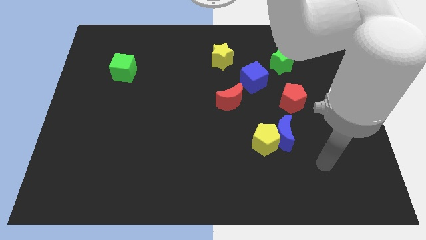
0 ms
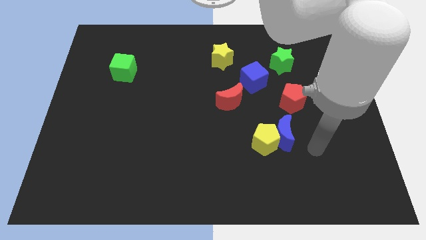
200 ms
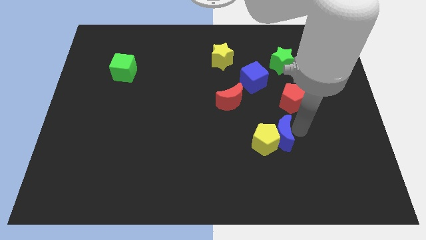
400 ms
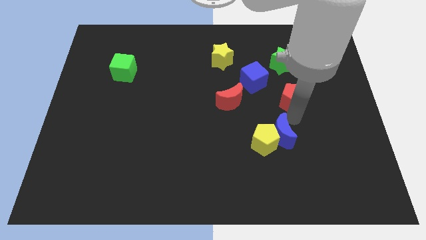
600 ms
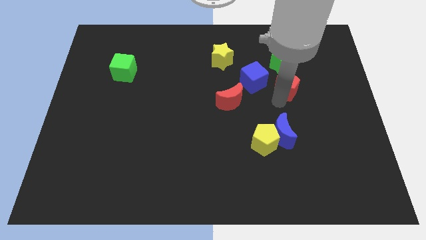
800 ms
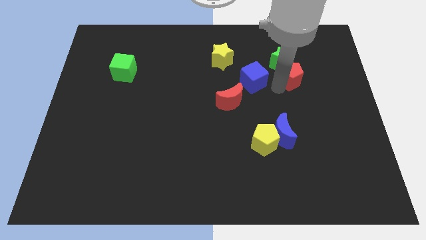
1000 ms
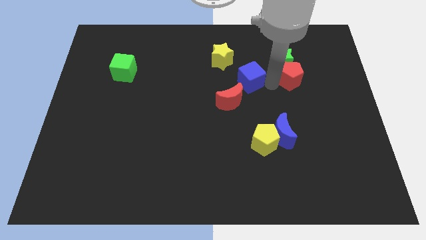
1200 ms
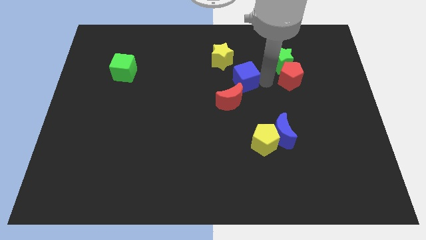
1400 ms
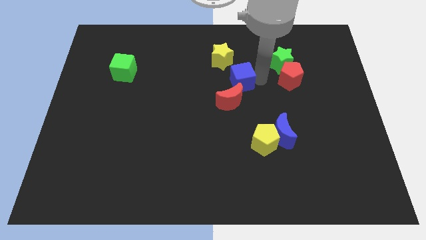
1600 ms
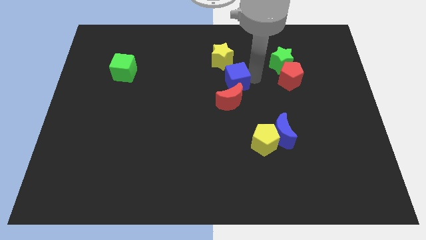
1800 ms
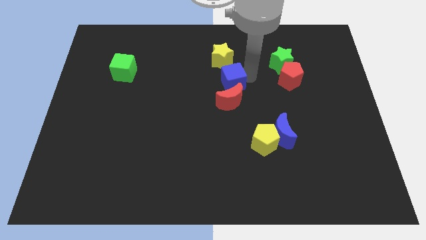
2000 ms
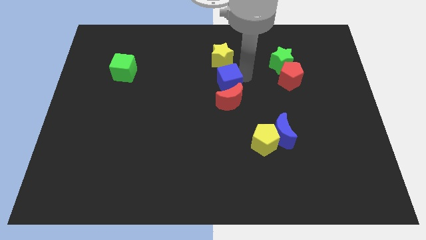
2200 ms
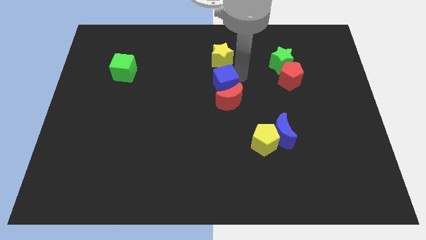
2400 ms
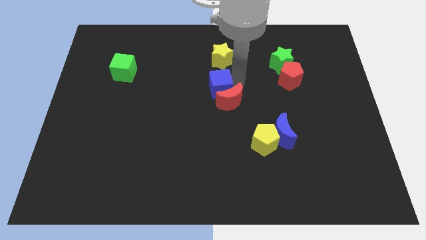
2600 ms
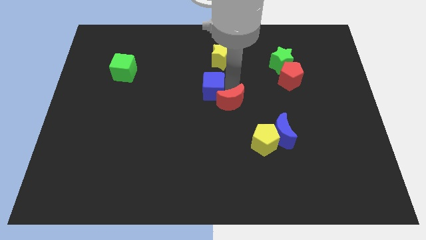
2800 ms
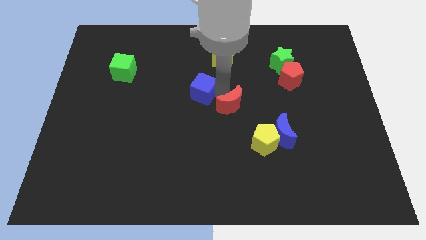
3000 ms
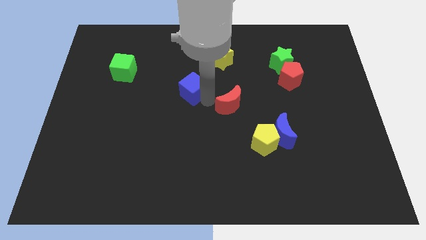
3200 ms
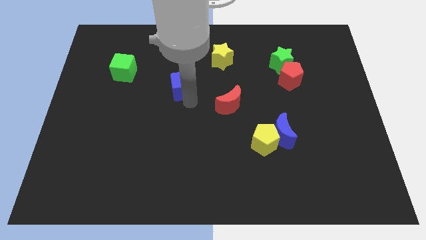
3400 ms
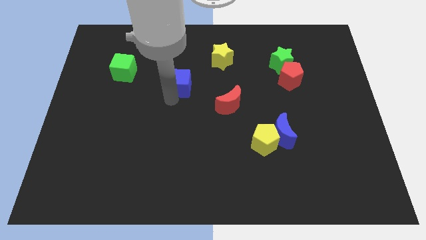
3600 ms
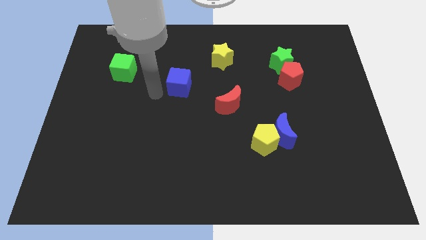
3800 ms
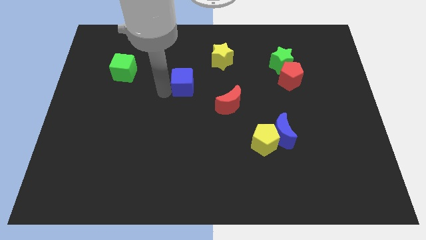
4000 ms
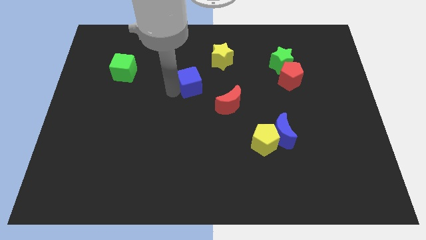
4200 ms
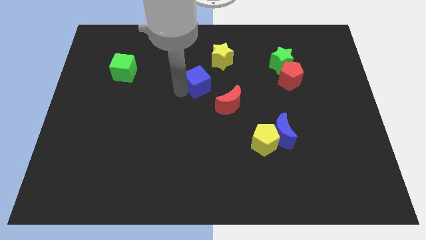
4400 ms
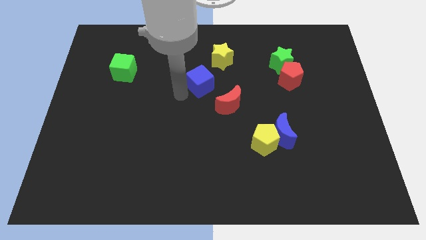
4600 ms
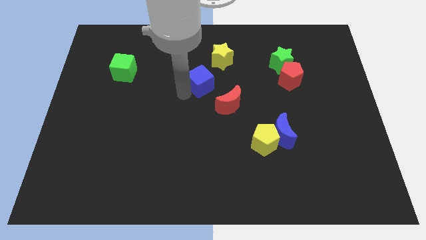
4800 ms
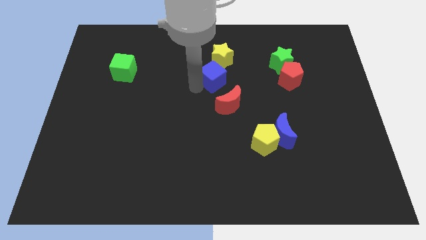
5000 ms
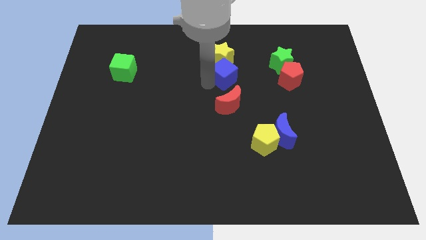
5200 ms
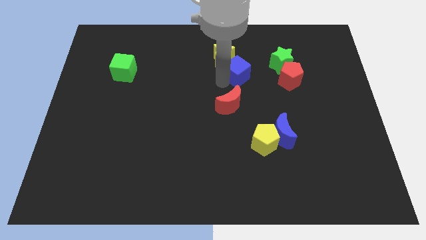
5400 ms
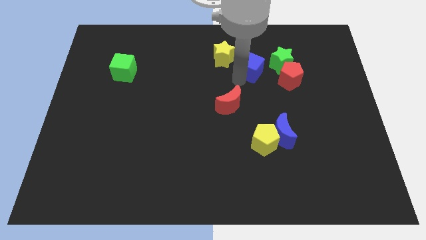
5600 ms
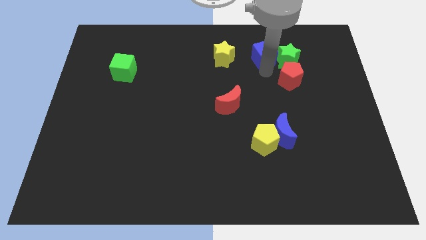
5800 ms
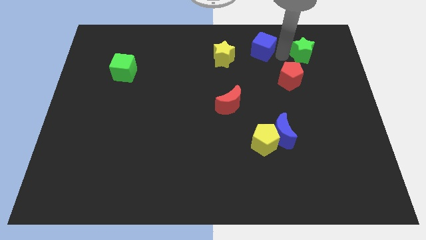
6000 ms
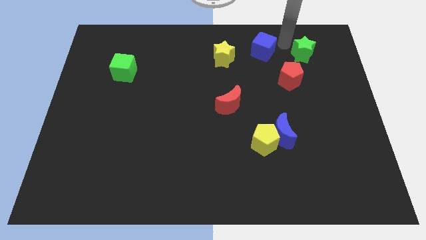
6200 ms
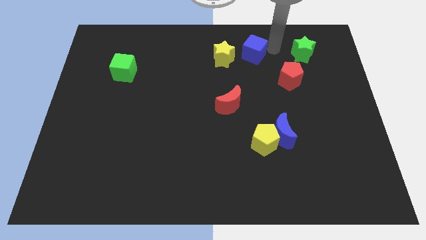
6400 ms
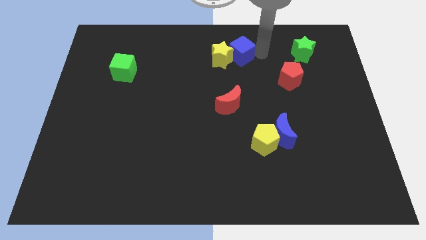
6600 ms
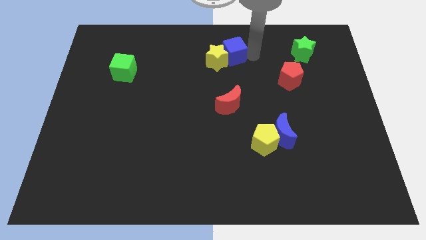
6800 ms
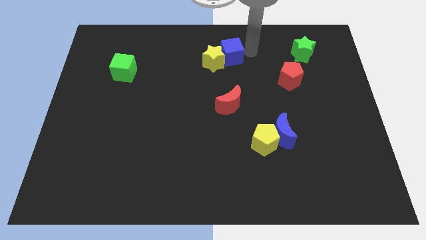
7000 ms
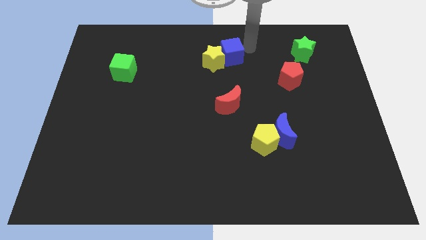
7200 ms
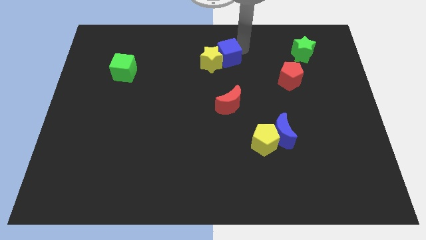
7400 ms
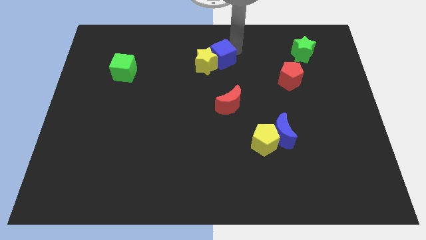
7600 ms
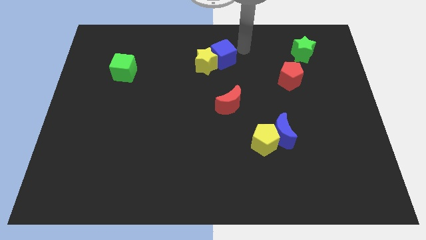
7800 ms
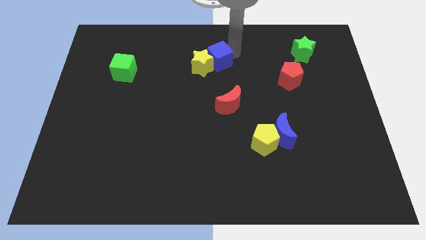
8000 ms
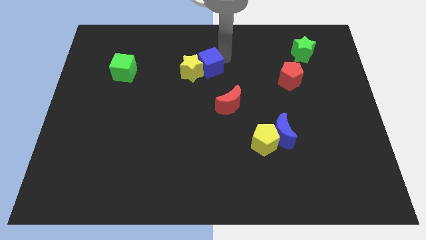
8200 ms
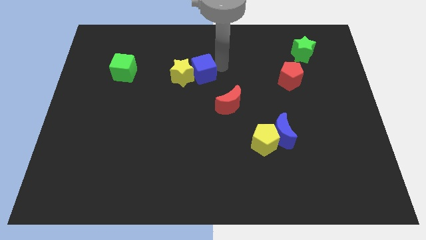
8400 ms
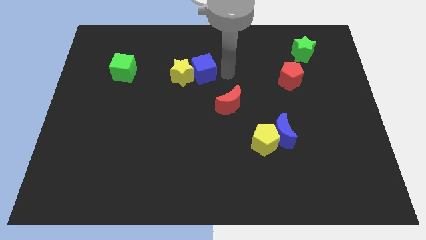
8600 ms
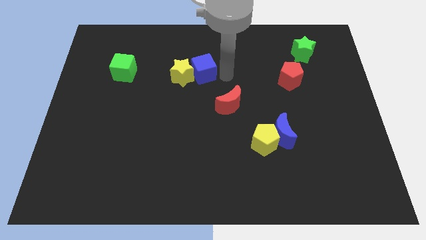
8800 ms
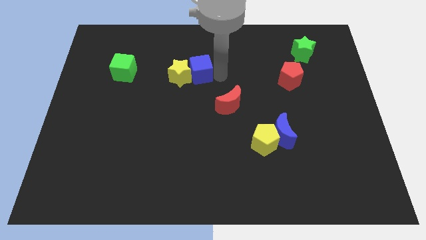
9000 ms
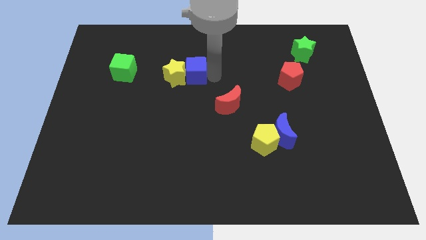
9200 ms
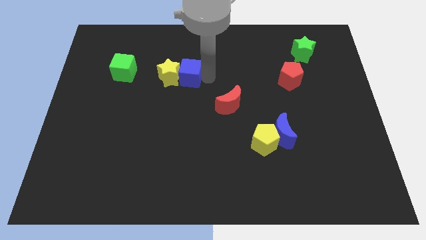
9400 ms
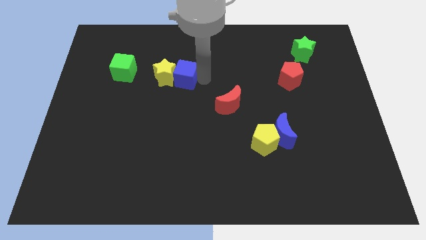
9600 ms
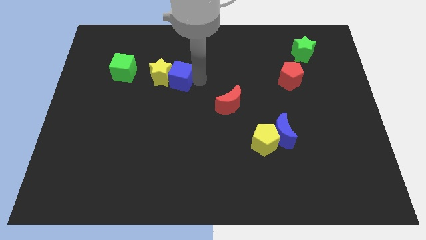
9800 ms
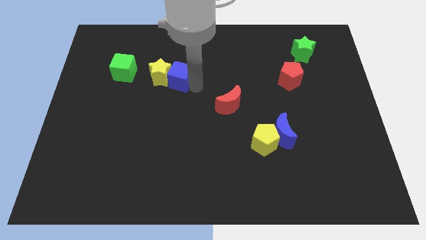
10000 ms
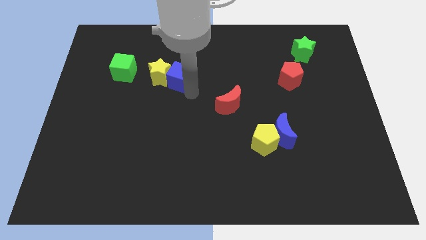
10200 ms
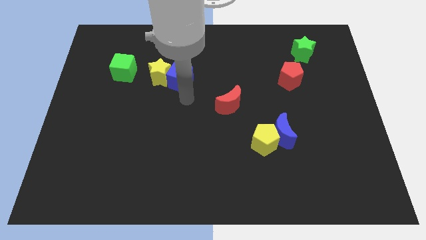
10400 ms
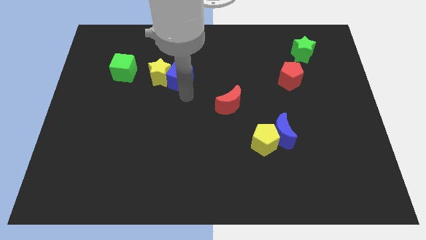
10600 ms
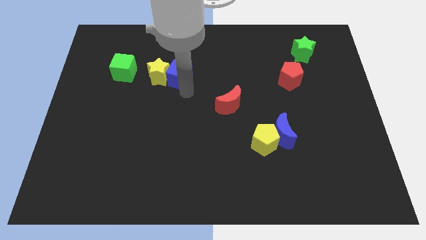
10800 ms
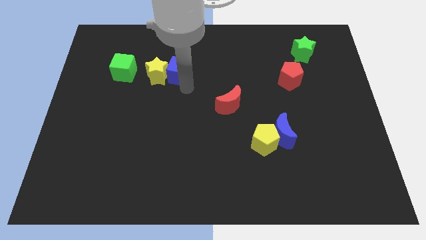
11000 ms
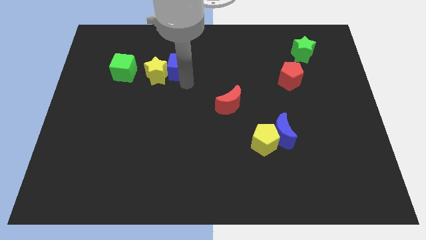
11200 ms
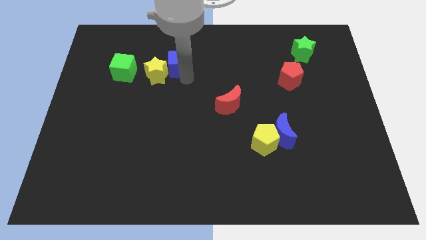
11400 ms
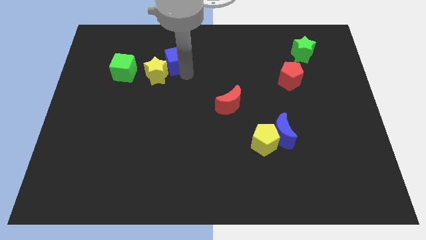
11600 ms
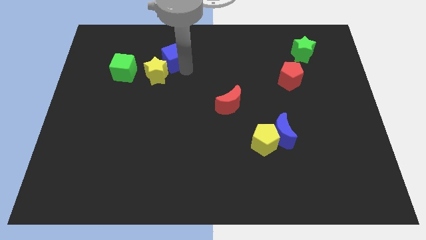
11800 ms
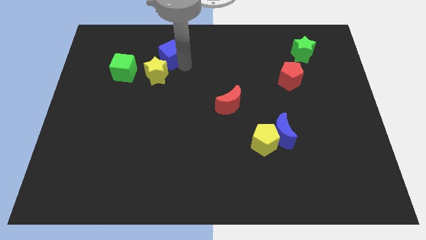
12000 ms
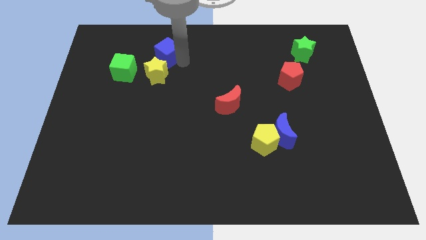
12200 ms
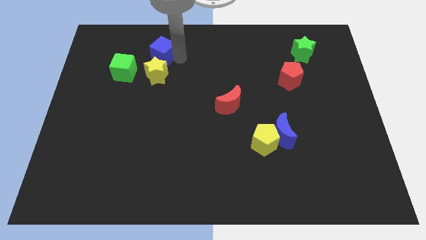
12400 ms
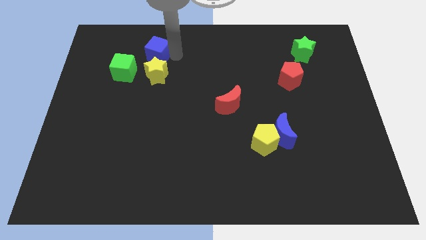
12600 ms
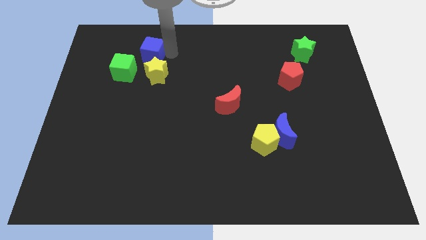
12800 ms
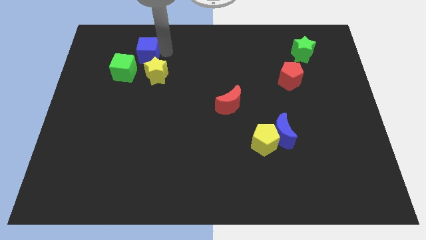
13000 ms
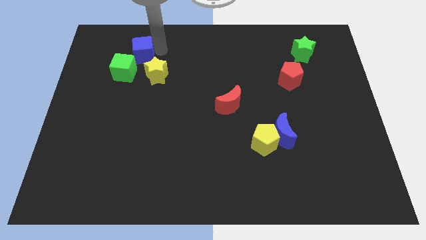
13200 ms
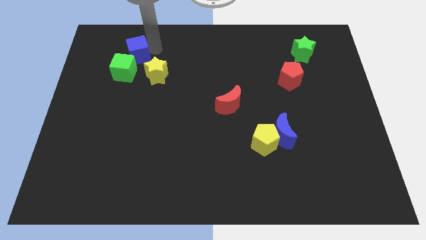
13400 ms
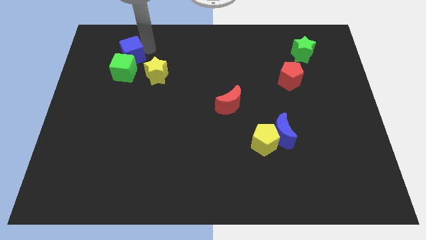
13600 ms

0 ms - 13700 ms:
put the blue cube to the green cube
